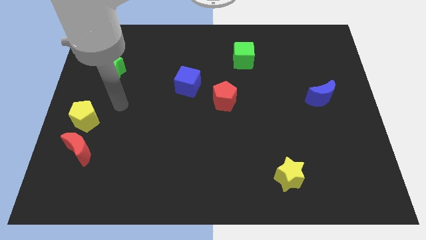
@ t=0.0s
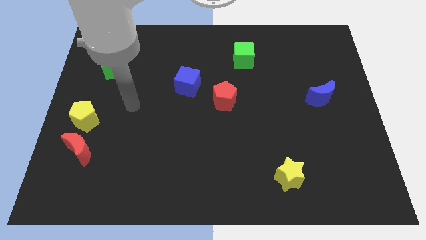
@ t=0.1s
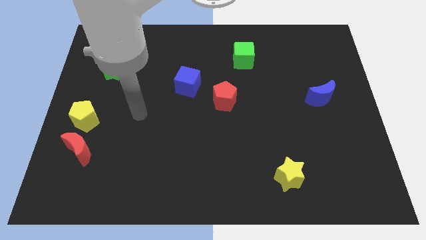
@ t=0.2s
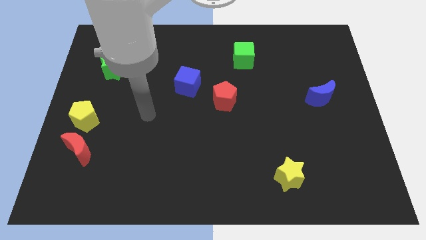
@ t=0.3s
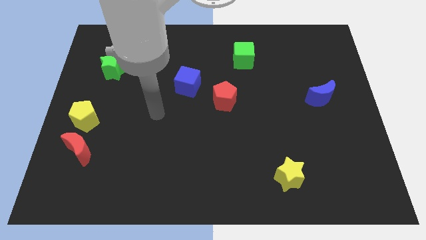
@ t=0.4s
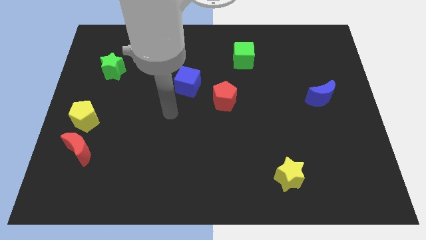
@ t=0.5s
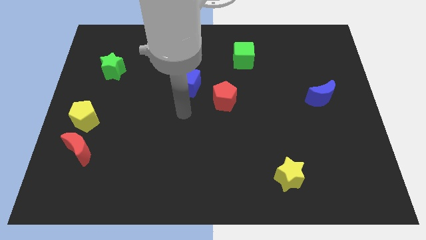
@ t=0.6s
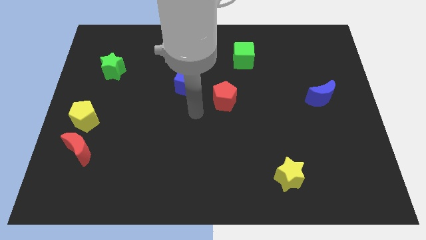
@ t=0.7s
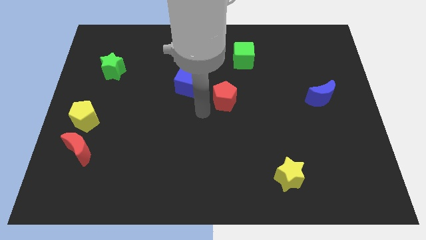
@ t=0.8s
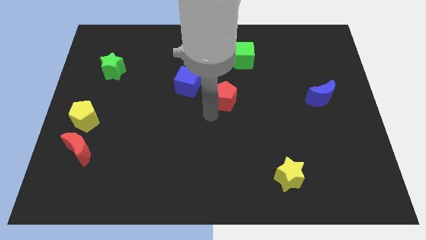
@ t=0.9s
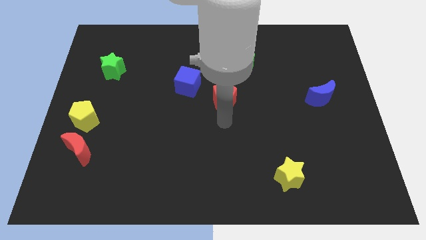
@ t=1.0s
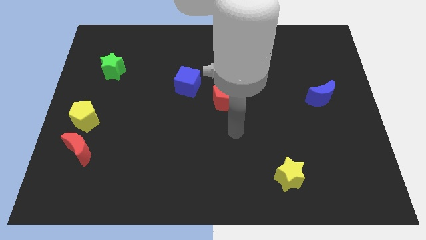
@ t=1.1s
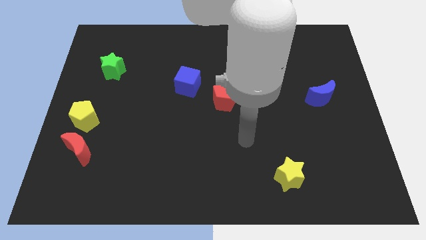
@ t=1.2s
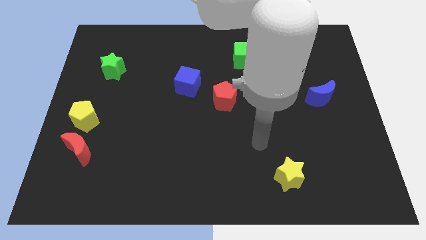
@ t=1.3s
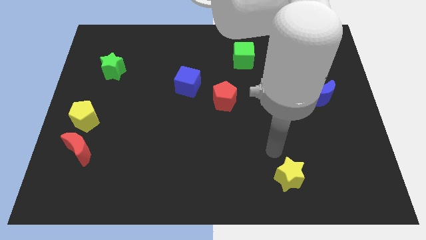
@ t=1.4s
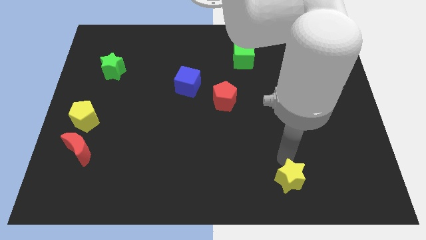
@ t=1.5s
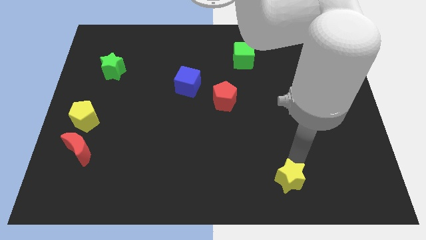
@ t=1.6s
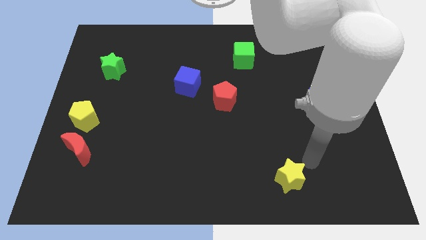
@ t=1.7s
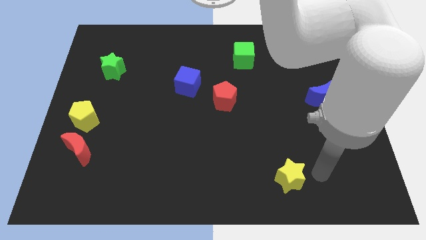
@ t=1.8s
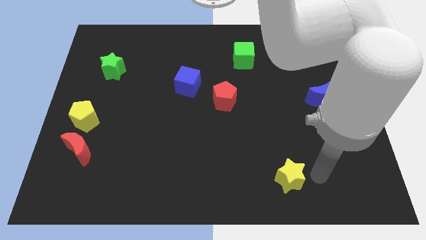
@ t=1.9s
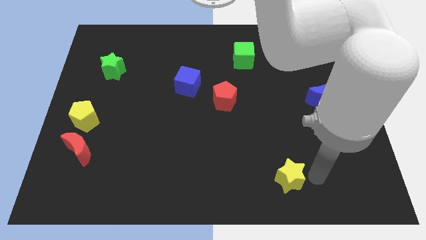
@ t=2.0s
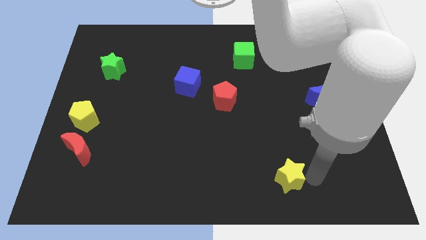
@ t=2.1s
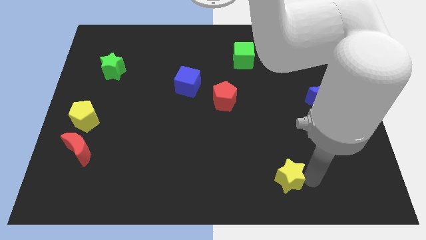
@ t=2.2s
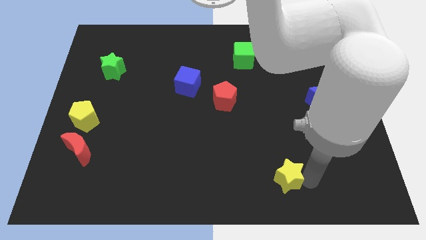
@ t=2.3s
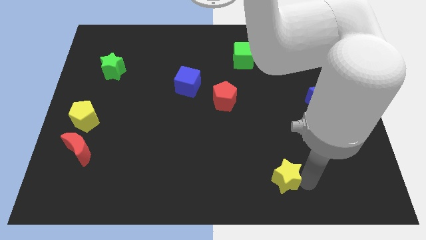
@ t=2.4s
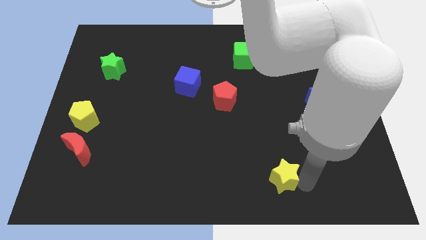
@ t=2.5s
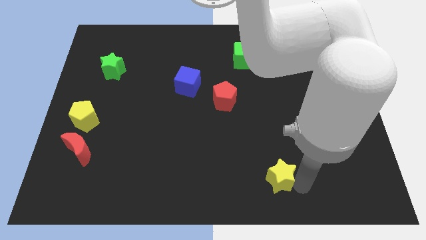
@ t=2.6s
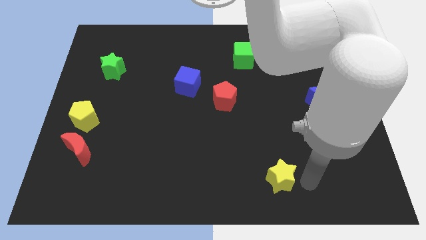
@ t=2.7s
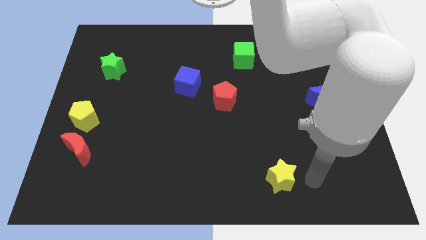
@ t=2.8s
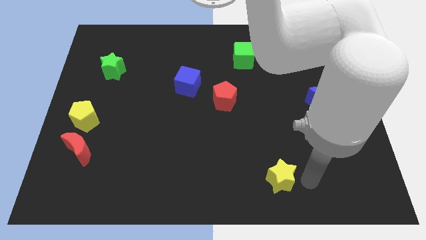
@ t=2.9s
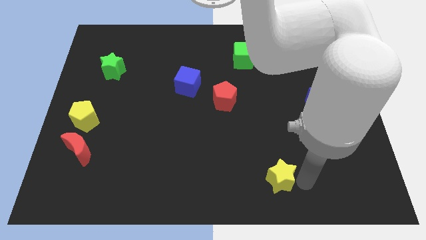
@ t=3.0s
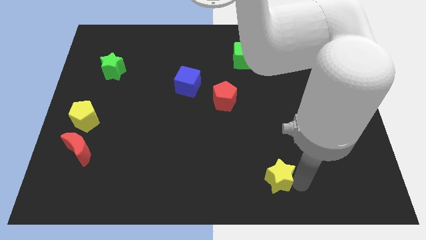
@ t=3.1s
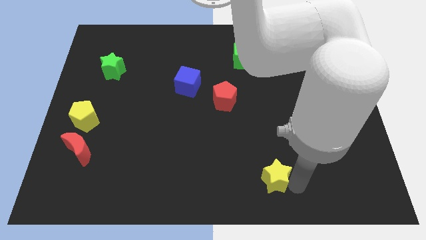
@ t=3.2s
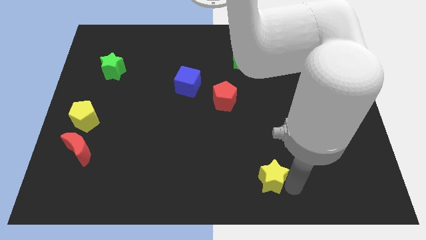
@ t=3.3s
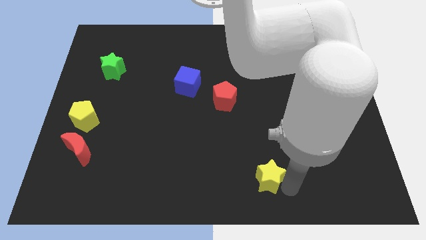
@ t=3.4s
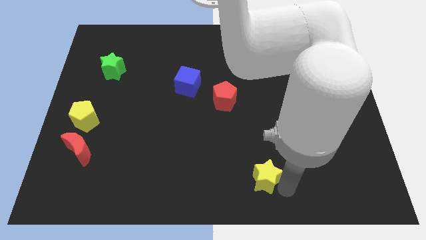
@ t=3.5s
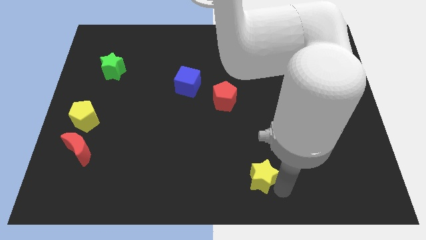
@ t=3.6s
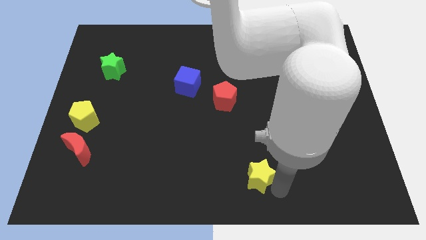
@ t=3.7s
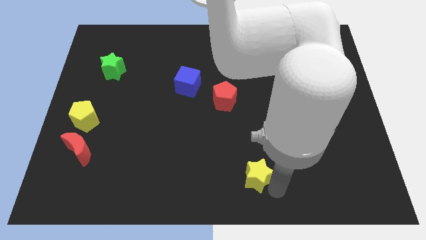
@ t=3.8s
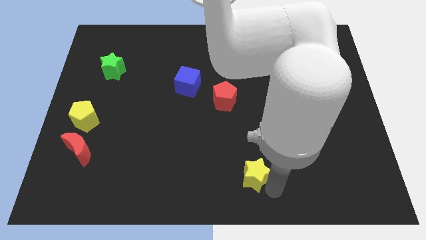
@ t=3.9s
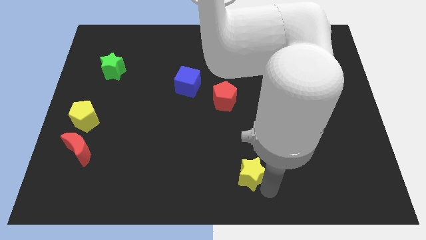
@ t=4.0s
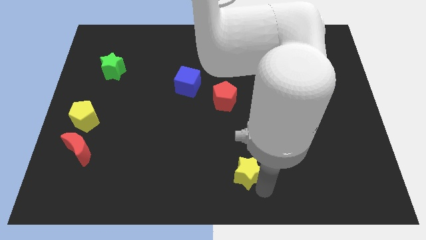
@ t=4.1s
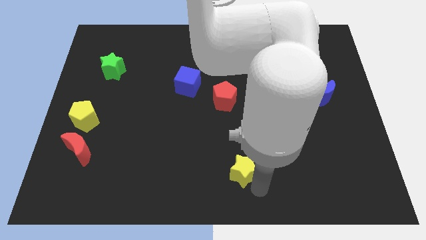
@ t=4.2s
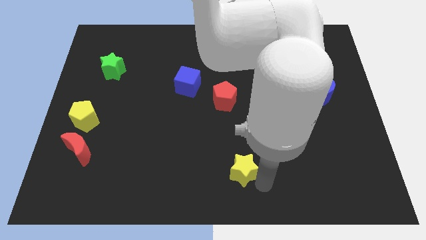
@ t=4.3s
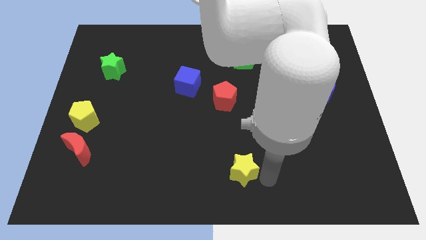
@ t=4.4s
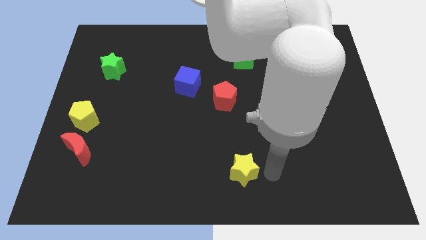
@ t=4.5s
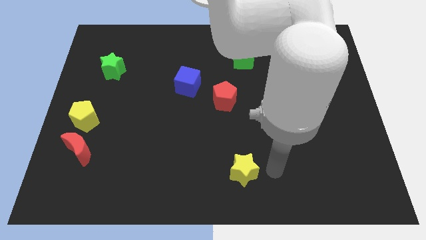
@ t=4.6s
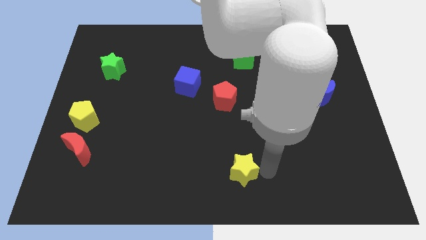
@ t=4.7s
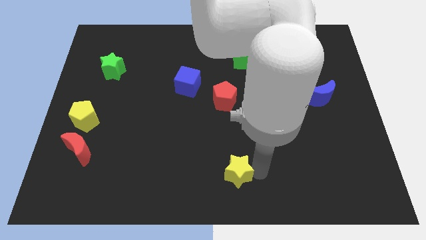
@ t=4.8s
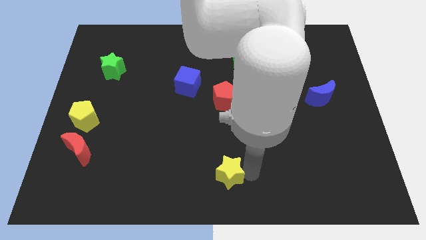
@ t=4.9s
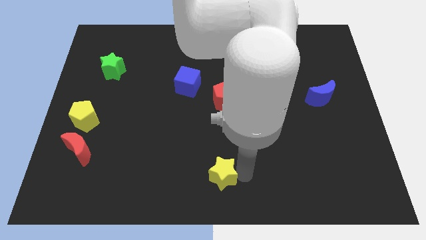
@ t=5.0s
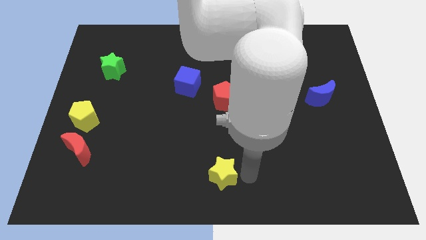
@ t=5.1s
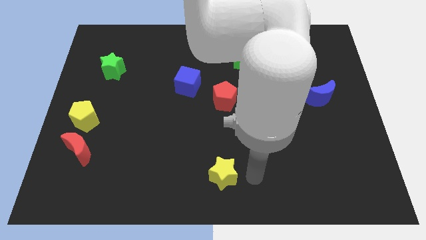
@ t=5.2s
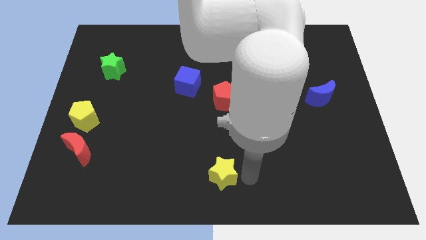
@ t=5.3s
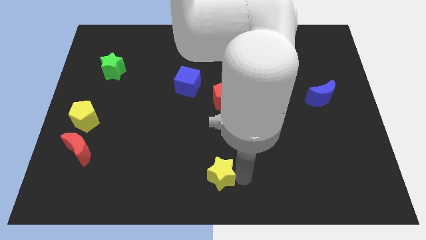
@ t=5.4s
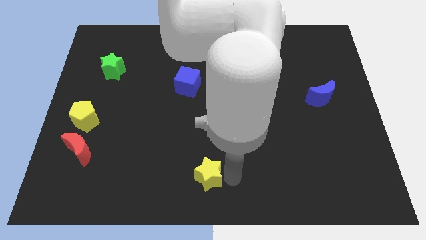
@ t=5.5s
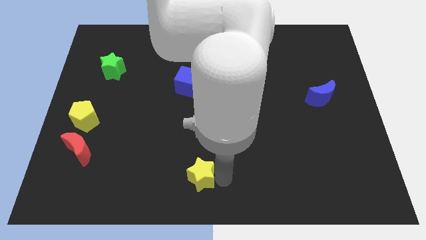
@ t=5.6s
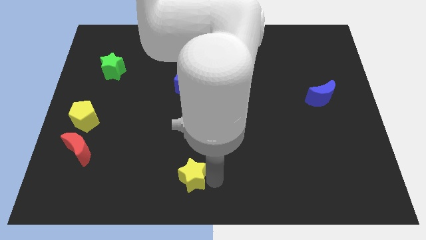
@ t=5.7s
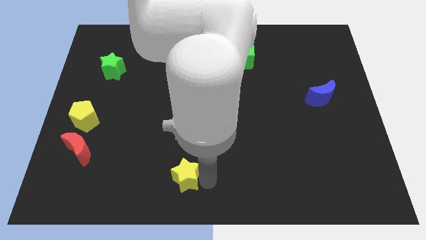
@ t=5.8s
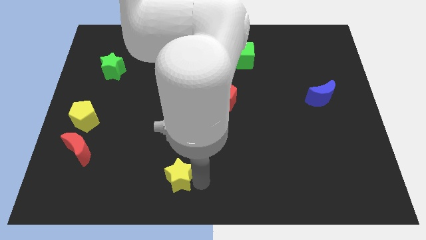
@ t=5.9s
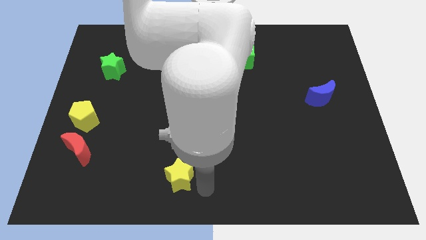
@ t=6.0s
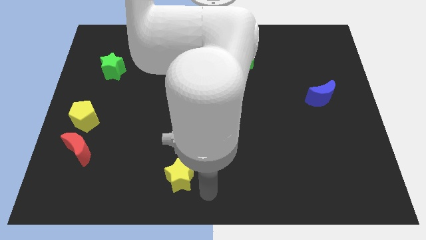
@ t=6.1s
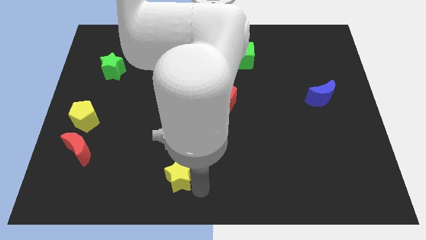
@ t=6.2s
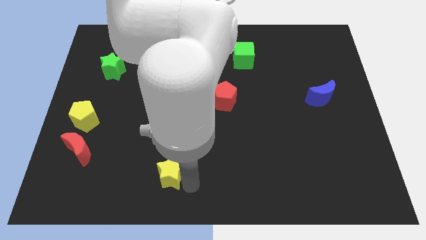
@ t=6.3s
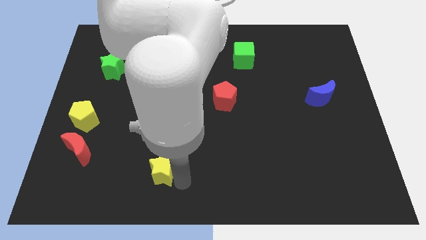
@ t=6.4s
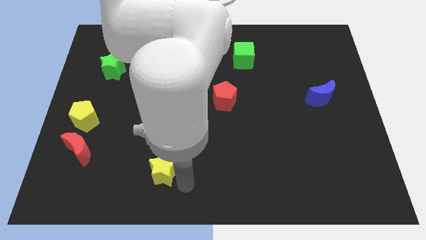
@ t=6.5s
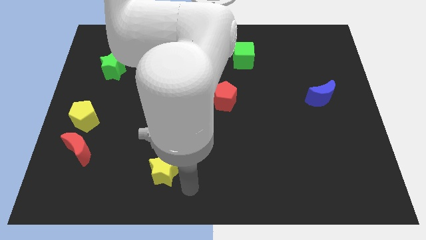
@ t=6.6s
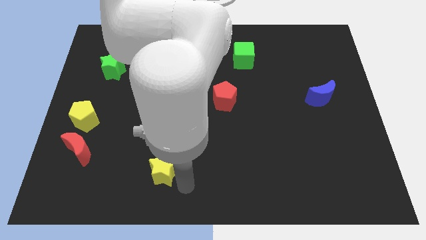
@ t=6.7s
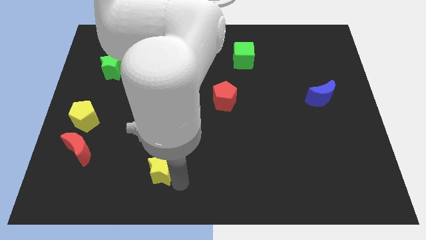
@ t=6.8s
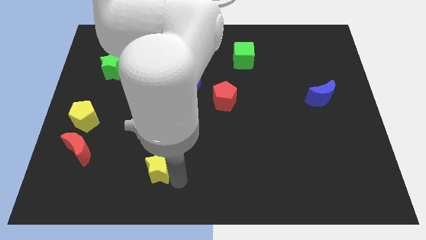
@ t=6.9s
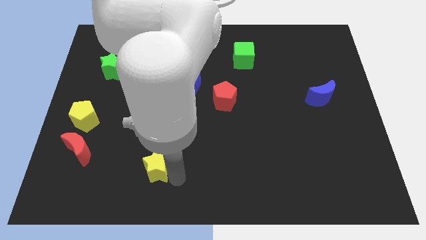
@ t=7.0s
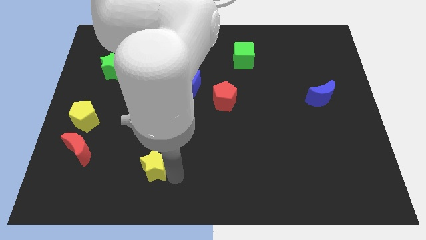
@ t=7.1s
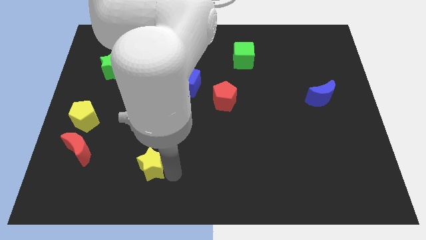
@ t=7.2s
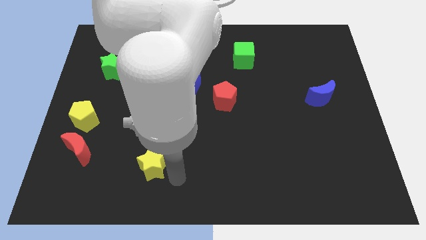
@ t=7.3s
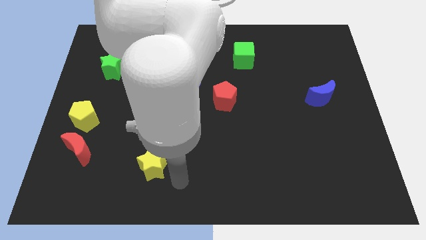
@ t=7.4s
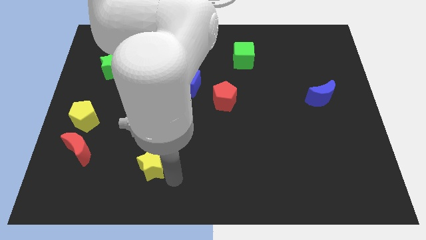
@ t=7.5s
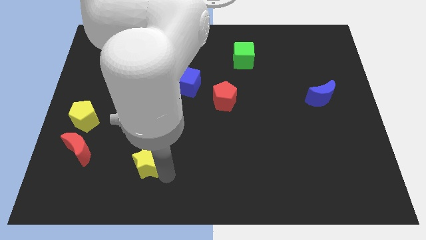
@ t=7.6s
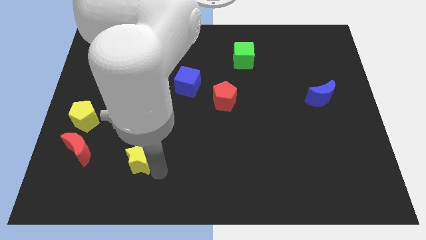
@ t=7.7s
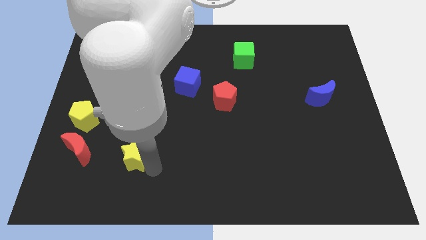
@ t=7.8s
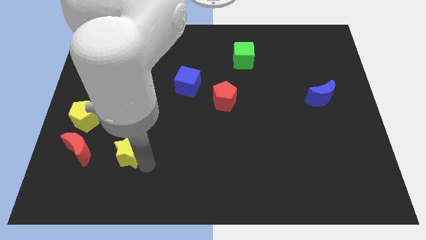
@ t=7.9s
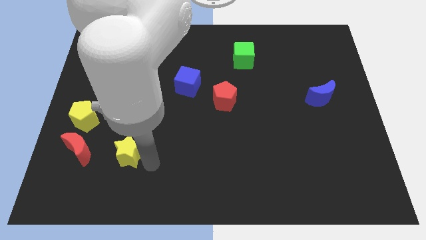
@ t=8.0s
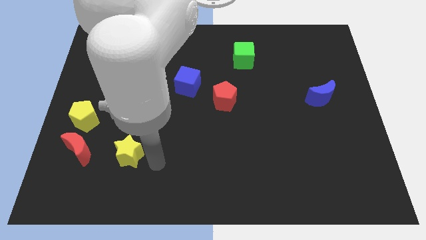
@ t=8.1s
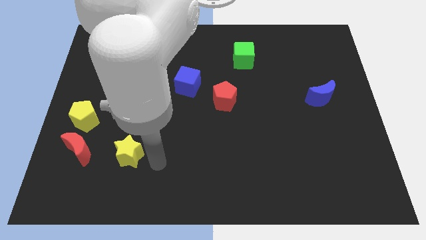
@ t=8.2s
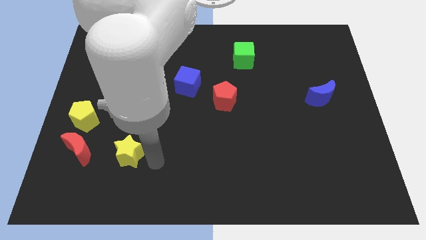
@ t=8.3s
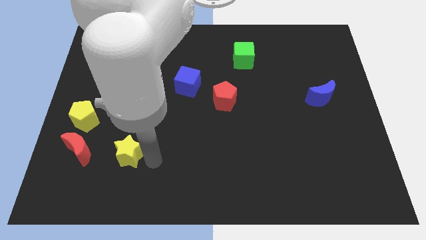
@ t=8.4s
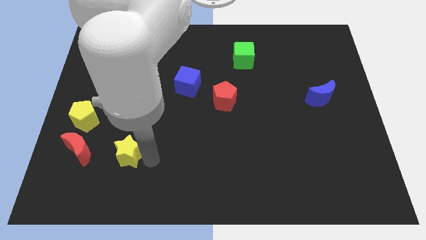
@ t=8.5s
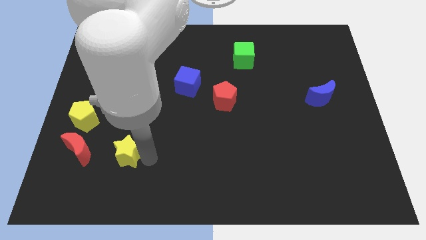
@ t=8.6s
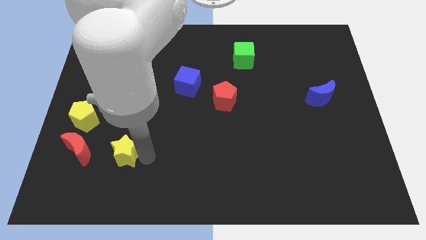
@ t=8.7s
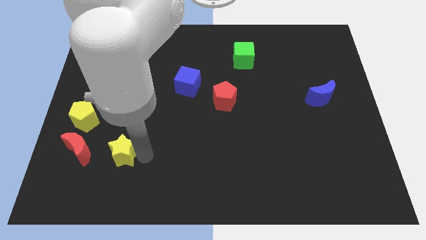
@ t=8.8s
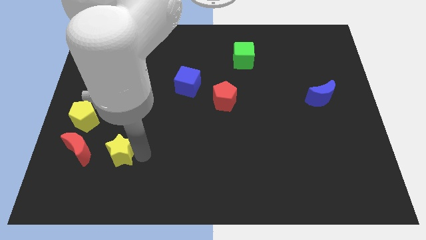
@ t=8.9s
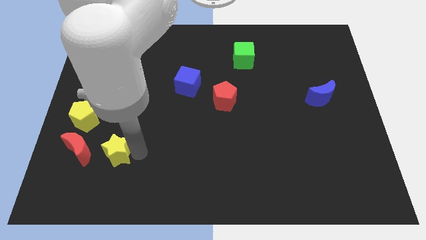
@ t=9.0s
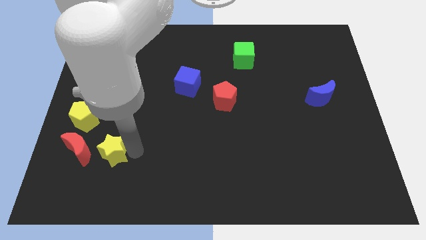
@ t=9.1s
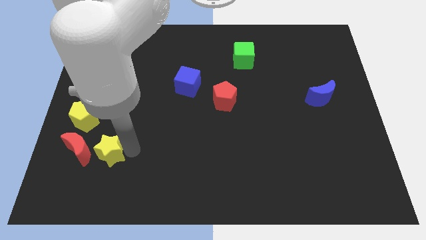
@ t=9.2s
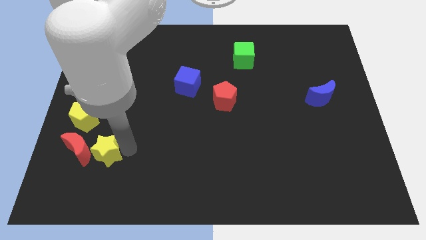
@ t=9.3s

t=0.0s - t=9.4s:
put the yellow star close to the red moon
